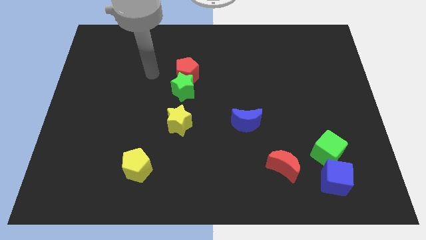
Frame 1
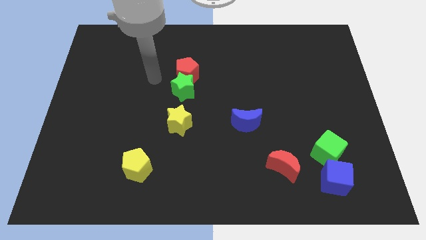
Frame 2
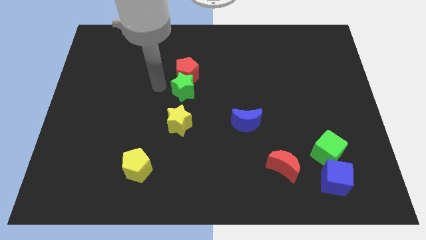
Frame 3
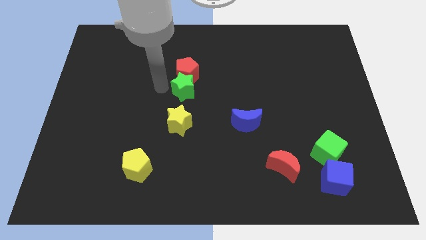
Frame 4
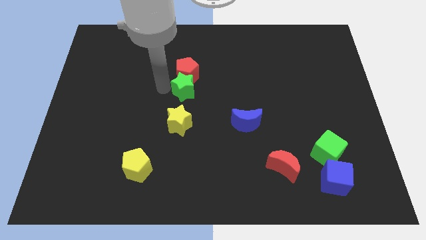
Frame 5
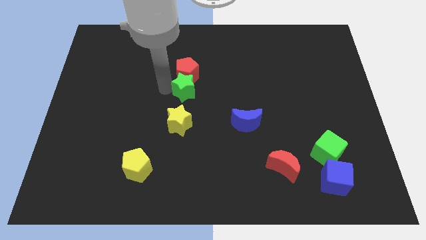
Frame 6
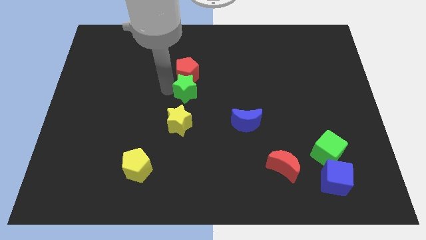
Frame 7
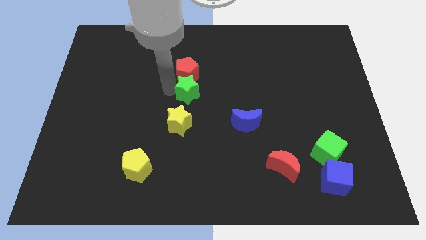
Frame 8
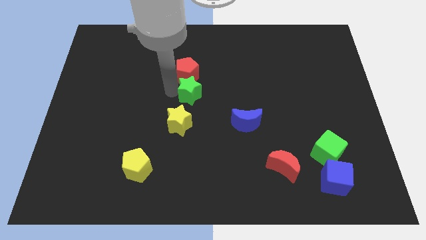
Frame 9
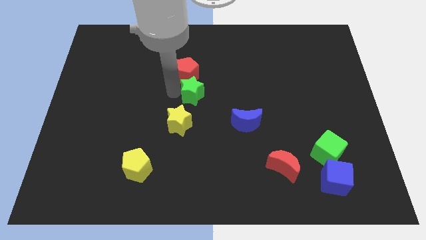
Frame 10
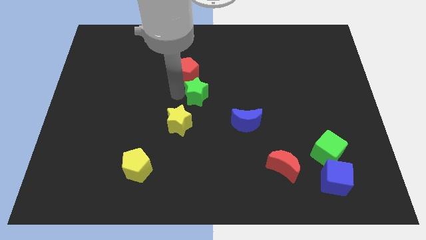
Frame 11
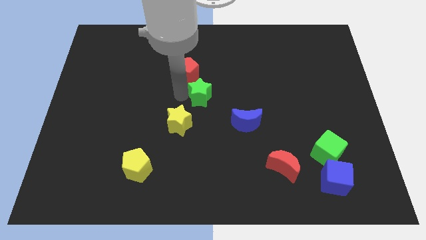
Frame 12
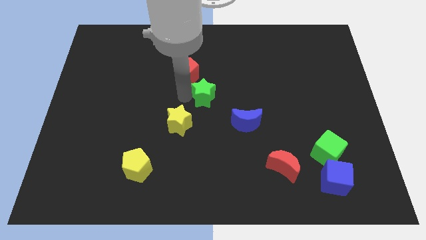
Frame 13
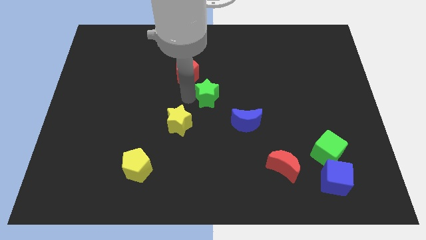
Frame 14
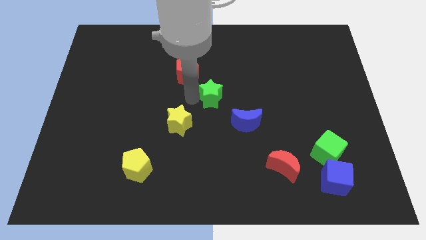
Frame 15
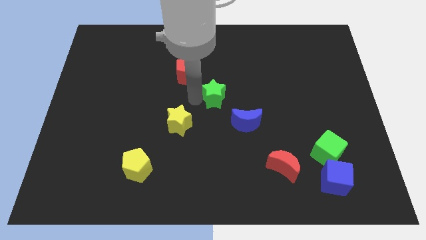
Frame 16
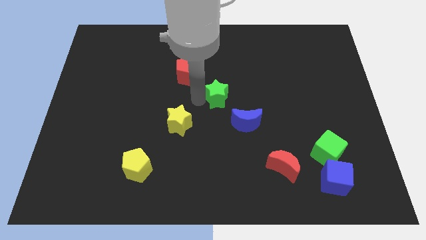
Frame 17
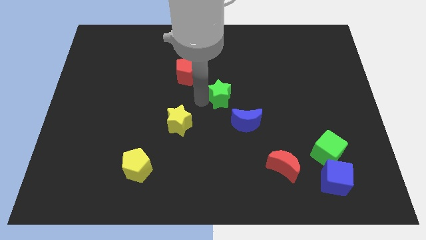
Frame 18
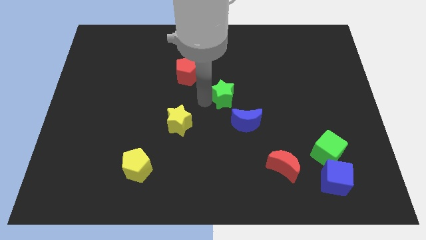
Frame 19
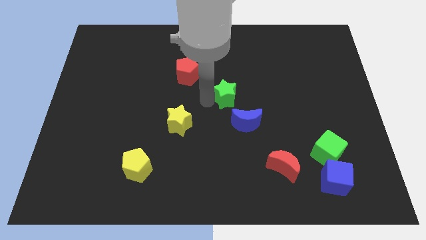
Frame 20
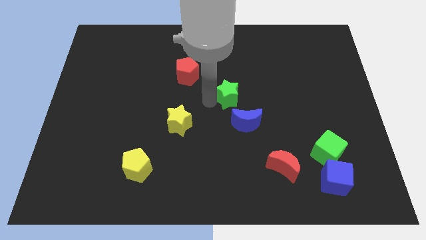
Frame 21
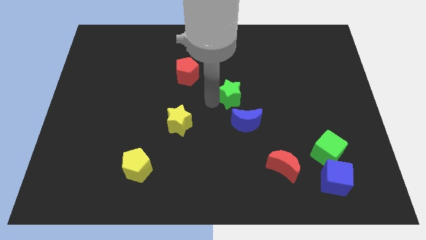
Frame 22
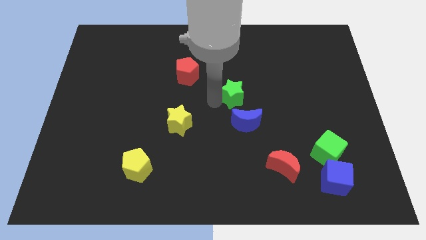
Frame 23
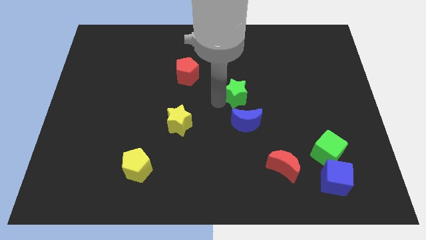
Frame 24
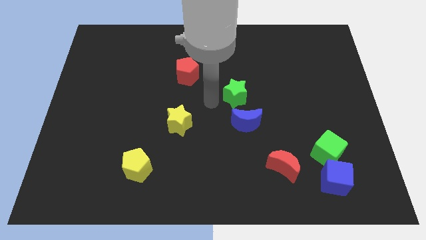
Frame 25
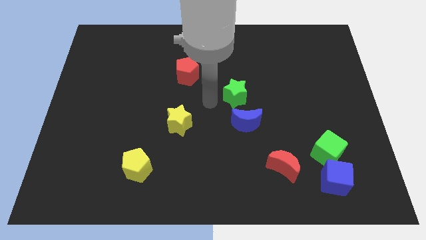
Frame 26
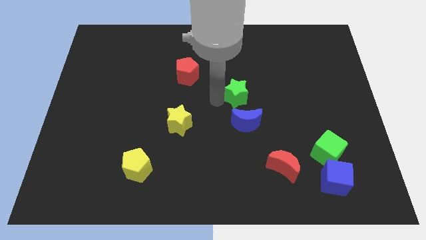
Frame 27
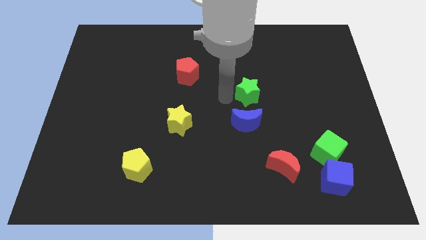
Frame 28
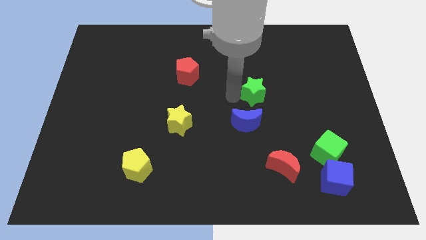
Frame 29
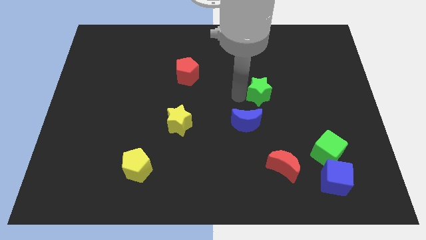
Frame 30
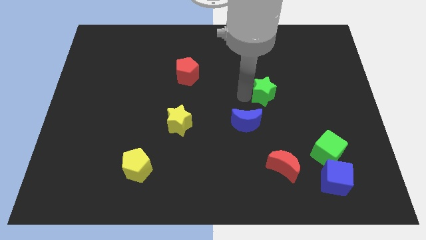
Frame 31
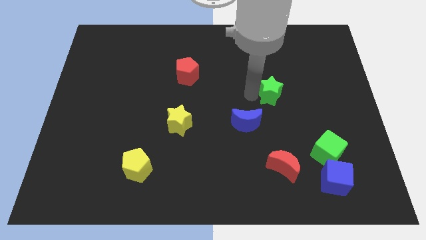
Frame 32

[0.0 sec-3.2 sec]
move the green star to the right

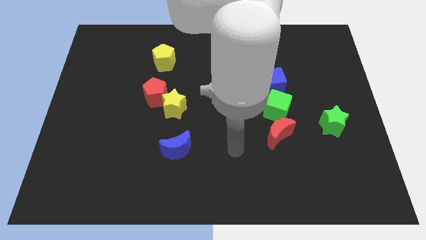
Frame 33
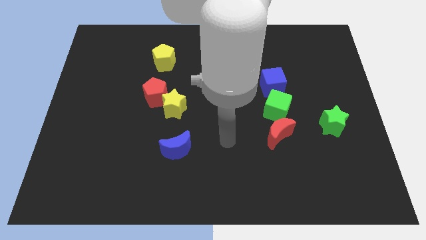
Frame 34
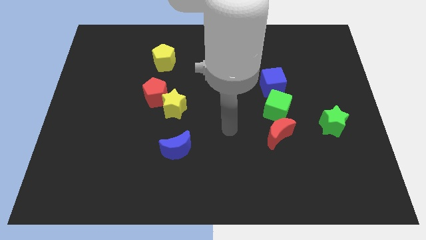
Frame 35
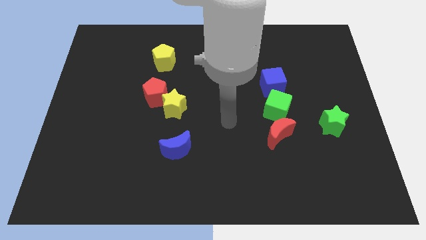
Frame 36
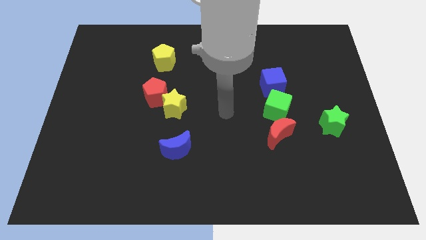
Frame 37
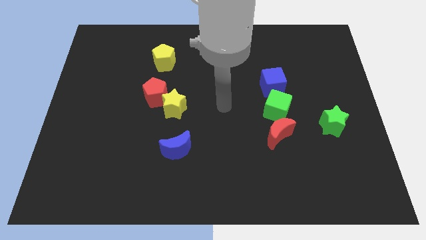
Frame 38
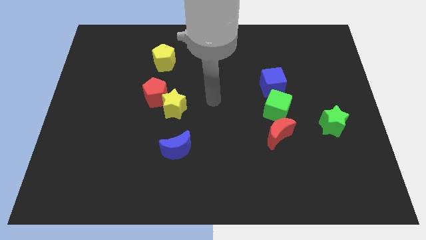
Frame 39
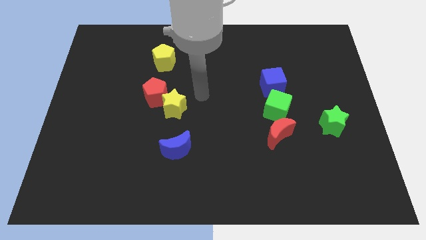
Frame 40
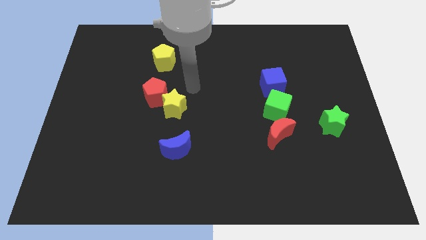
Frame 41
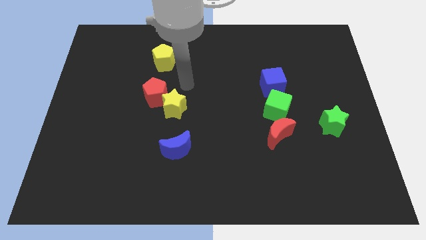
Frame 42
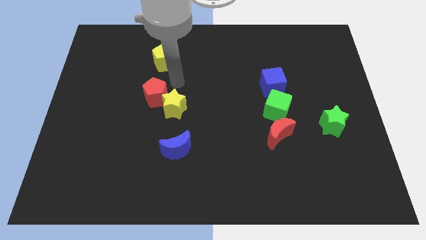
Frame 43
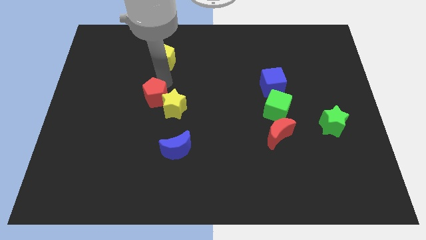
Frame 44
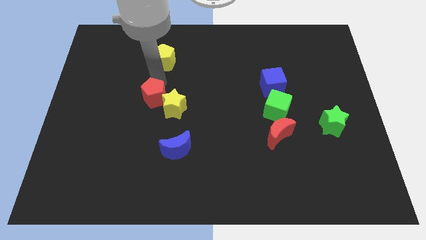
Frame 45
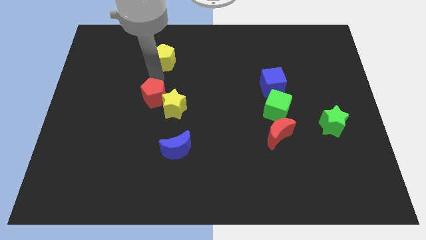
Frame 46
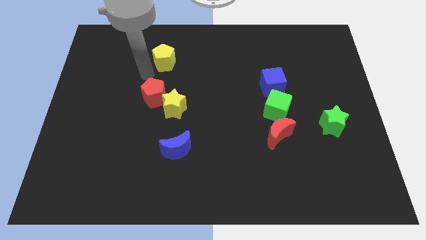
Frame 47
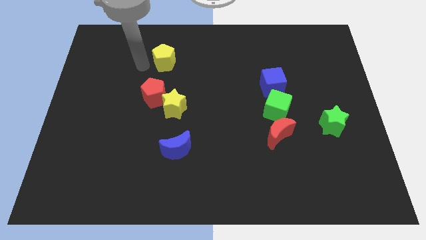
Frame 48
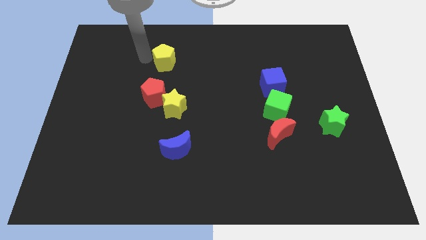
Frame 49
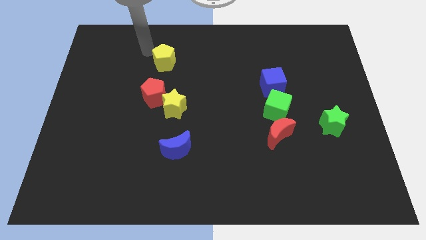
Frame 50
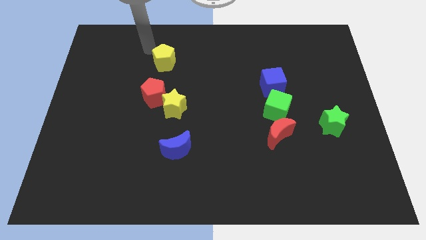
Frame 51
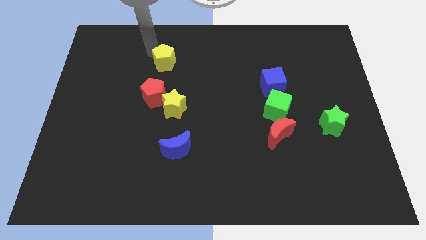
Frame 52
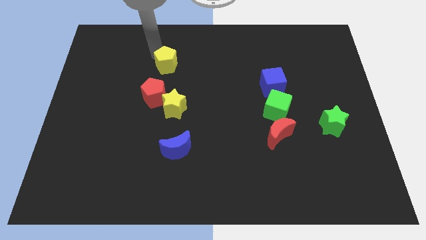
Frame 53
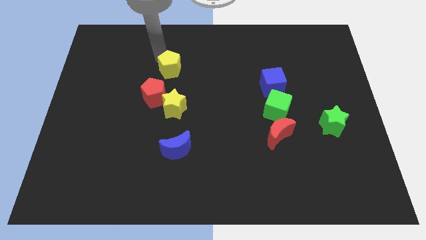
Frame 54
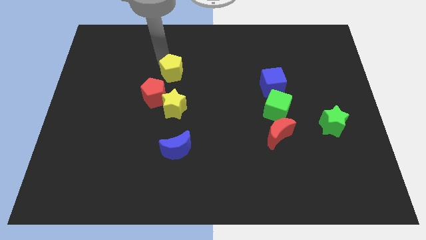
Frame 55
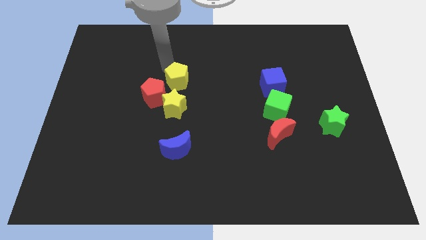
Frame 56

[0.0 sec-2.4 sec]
slightly move the yellow pentagon down and right diagonally

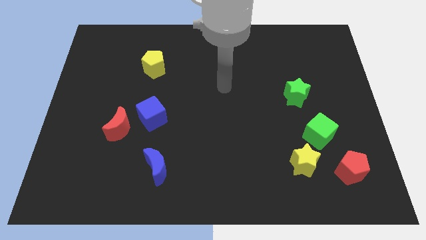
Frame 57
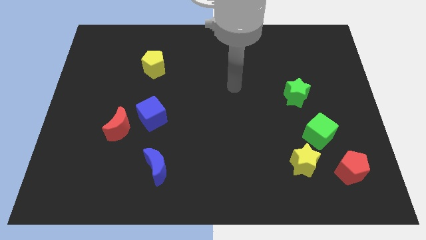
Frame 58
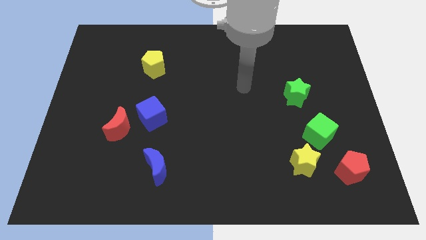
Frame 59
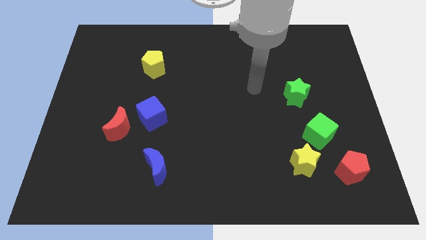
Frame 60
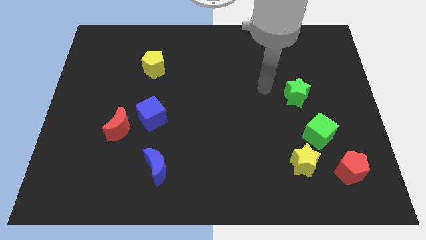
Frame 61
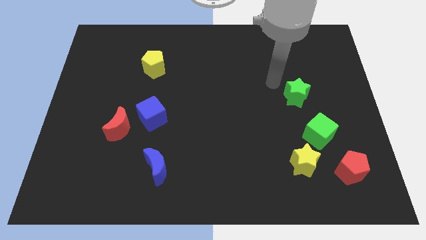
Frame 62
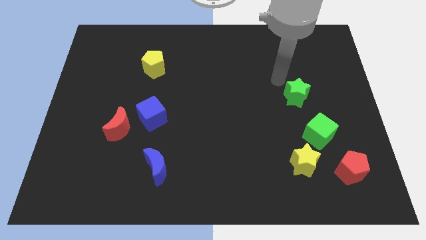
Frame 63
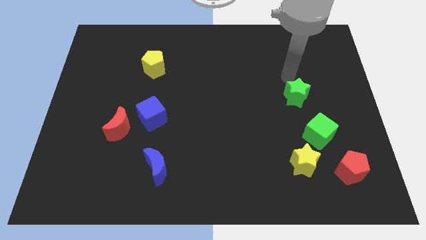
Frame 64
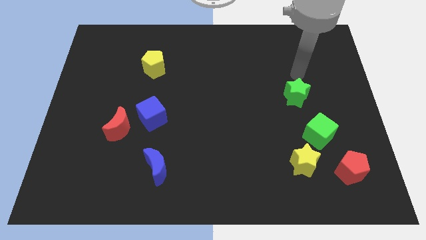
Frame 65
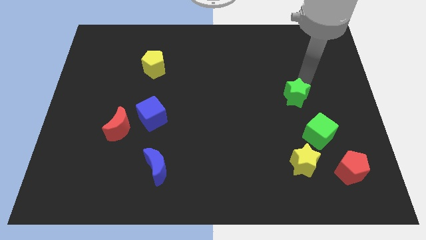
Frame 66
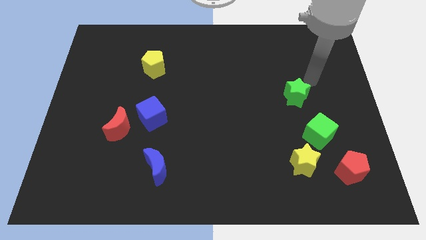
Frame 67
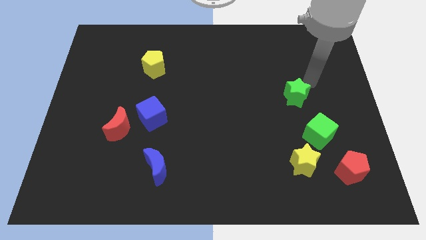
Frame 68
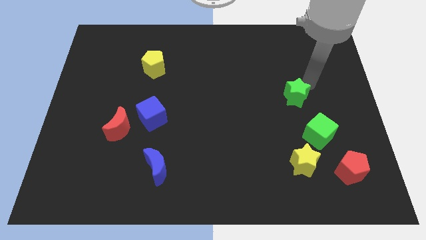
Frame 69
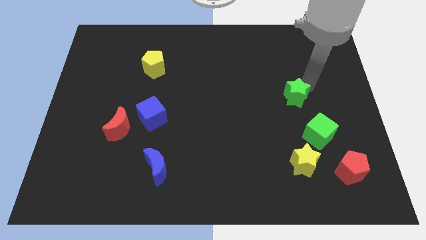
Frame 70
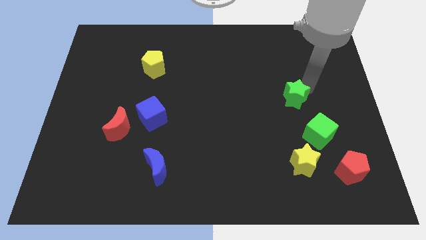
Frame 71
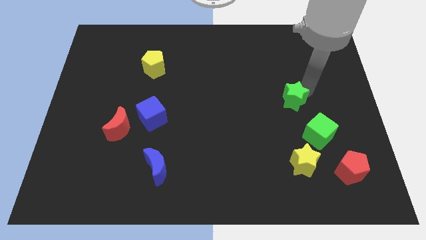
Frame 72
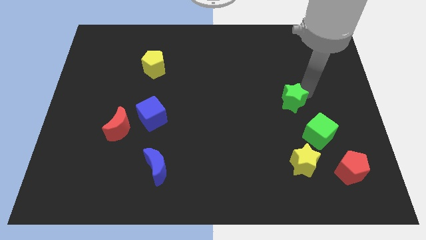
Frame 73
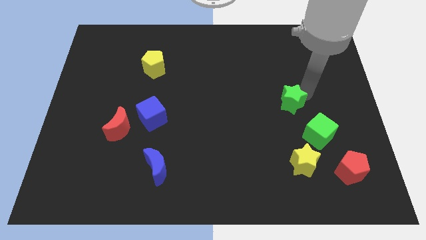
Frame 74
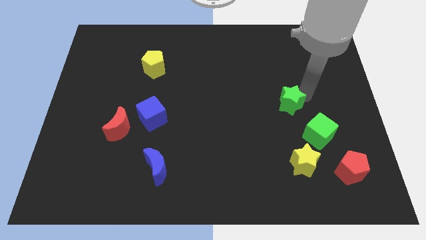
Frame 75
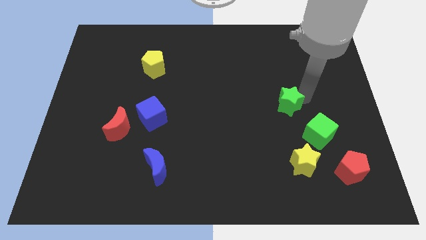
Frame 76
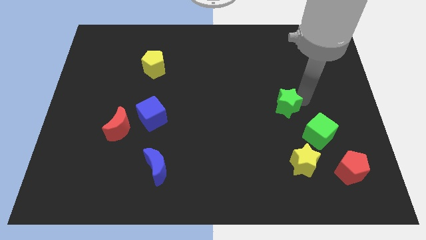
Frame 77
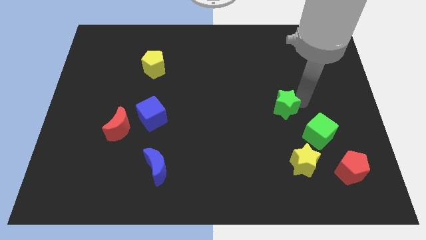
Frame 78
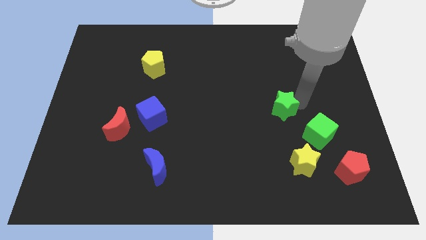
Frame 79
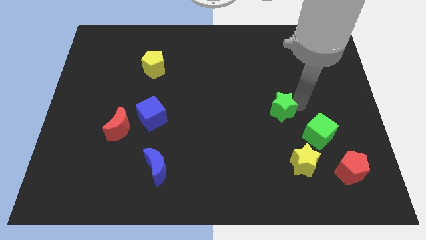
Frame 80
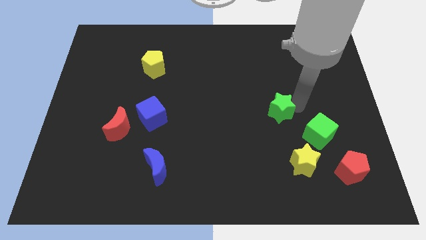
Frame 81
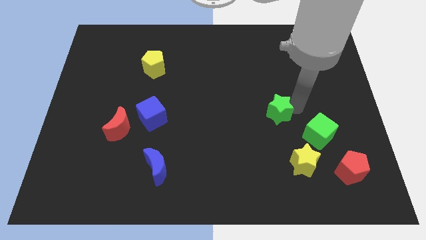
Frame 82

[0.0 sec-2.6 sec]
slide the green star downwards and then left a bit
